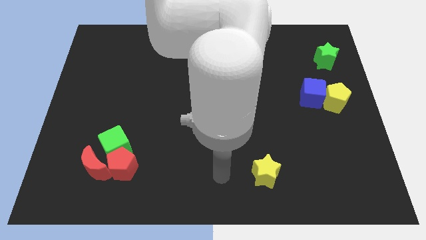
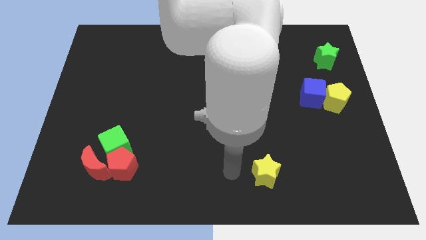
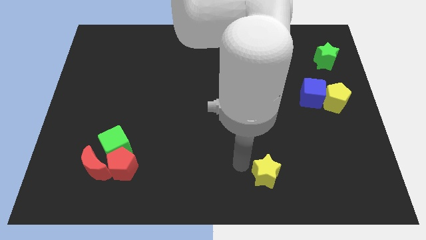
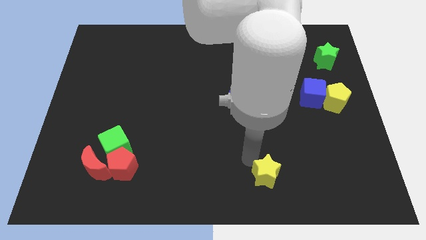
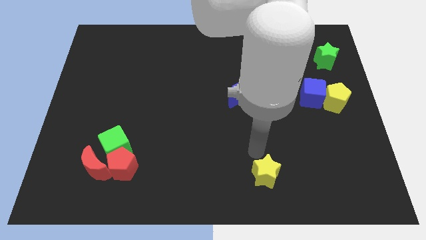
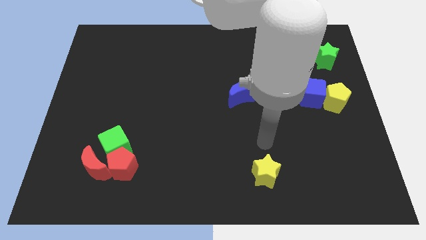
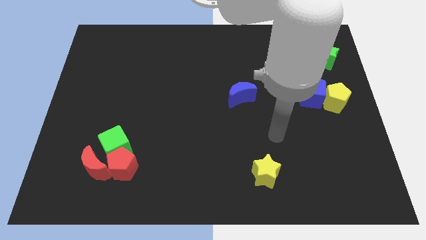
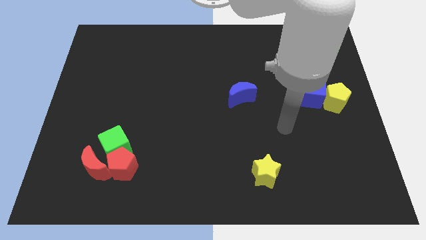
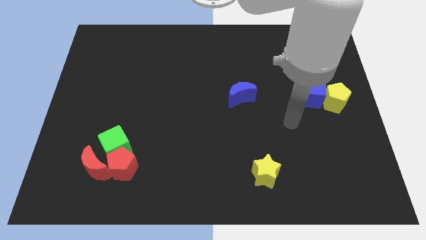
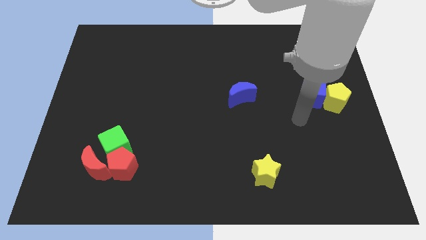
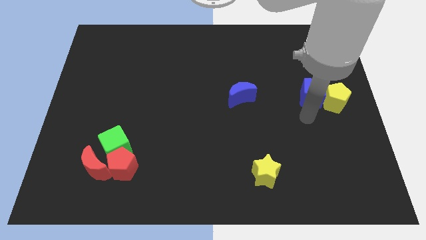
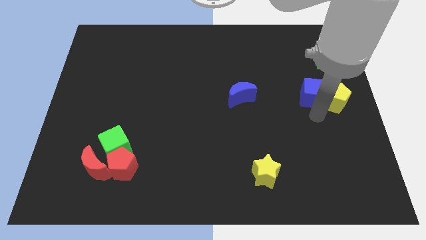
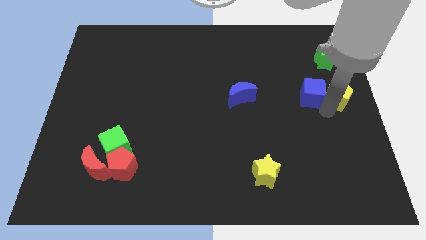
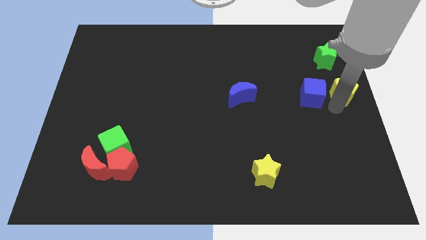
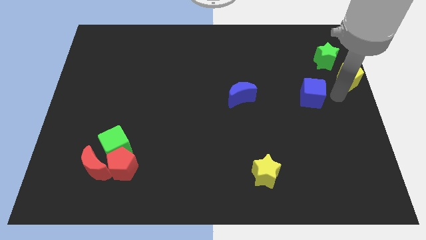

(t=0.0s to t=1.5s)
pull the blue cube apart from the yellow pentagon

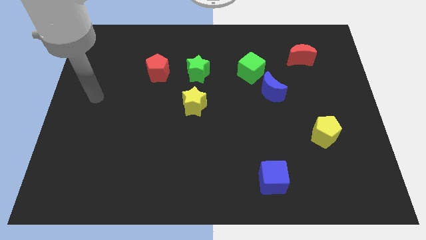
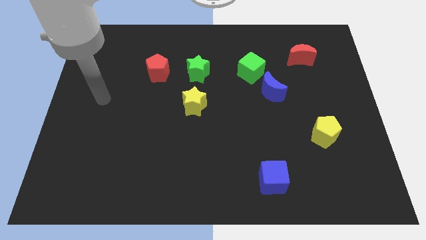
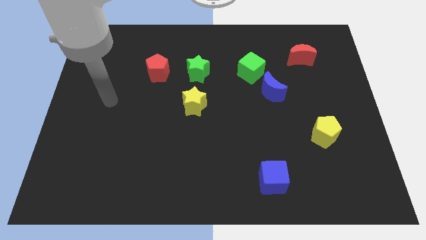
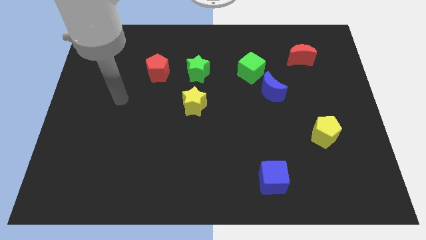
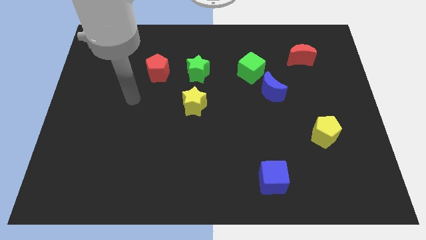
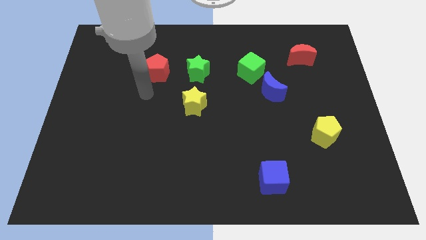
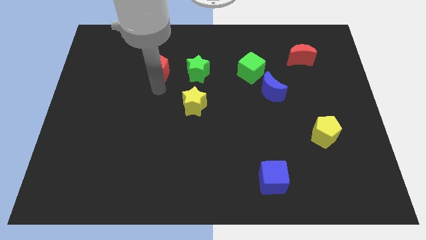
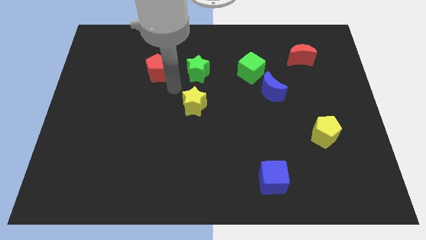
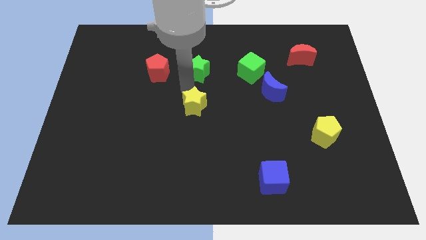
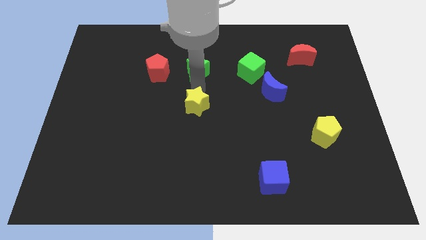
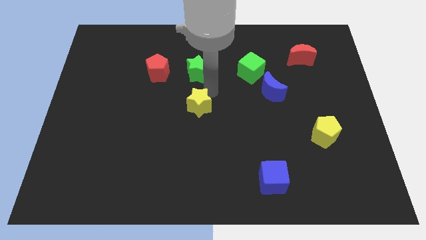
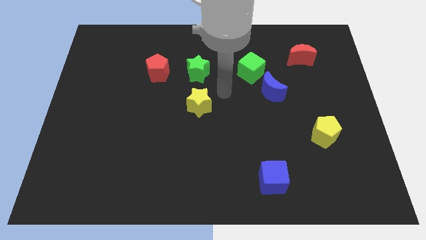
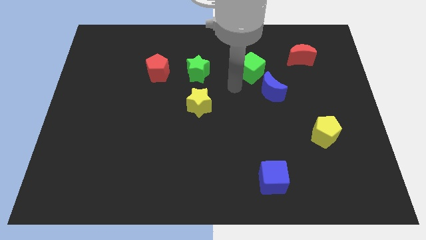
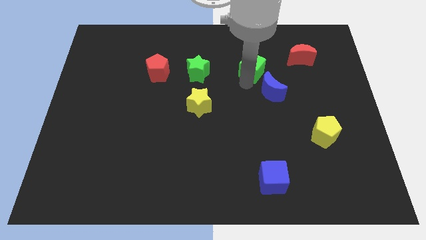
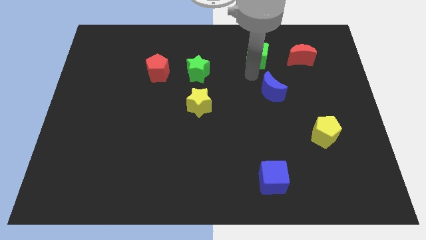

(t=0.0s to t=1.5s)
move the blue moon away from the green cube

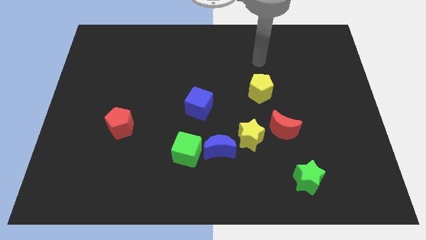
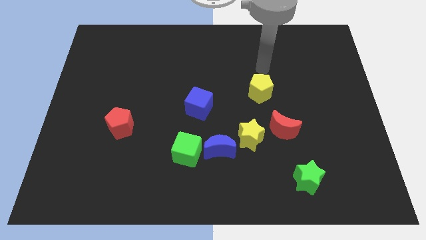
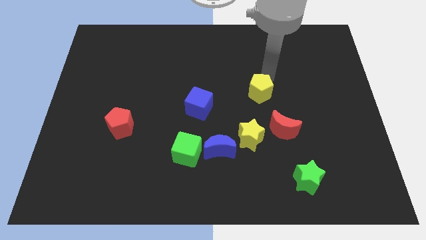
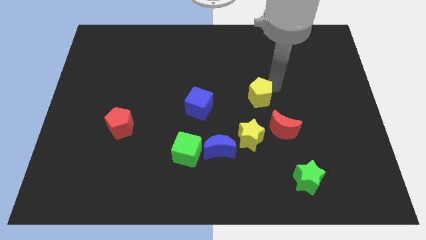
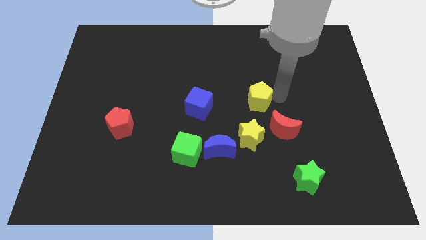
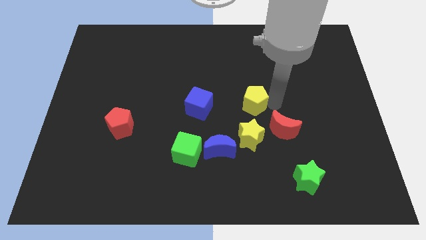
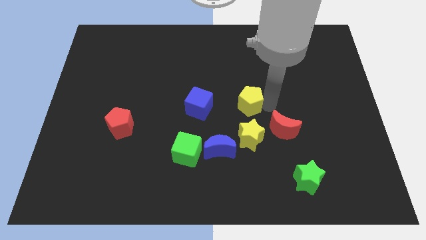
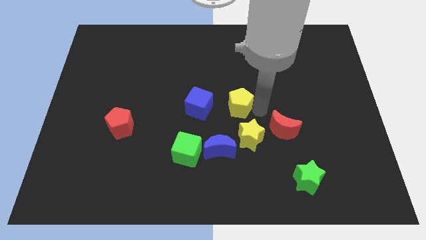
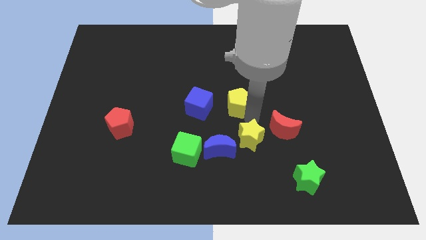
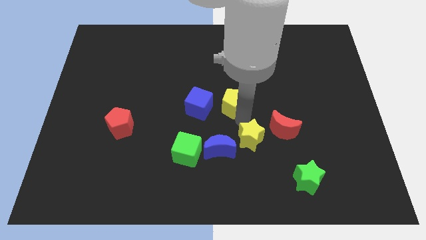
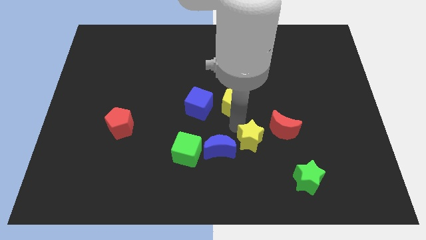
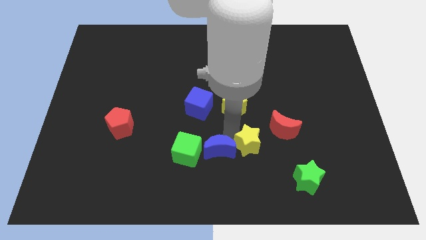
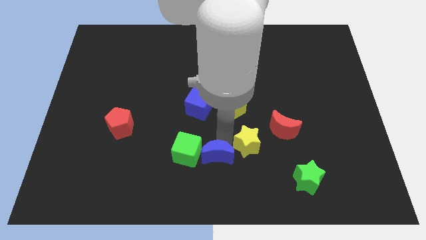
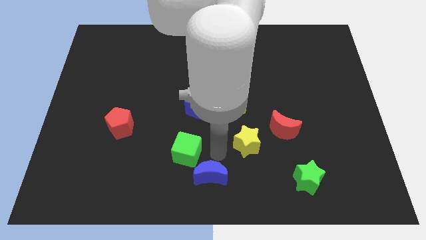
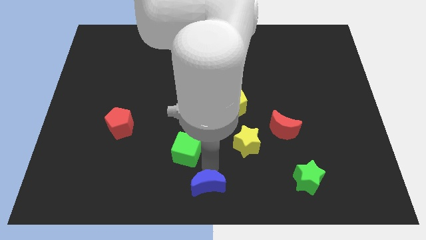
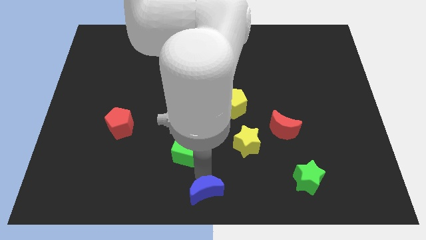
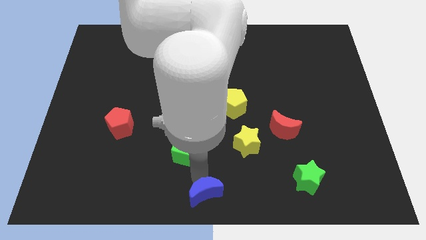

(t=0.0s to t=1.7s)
move the green cube away from the blue moon

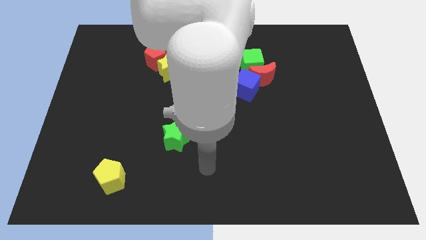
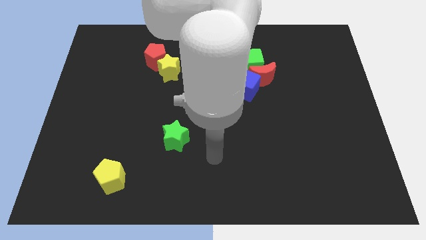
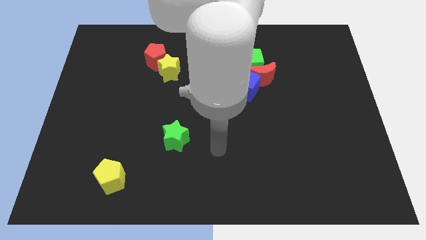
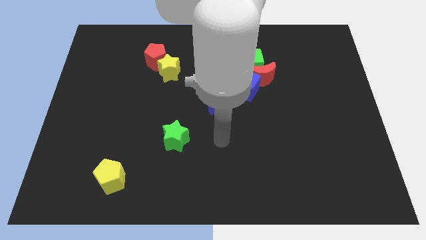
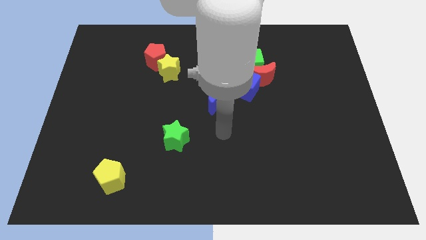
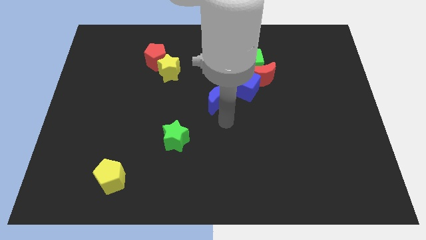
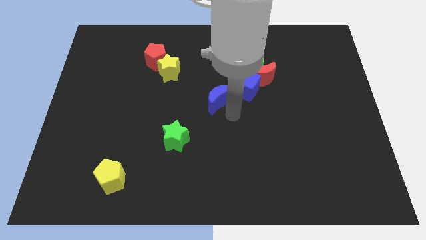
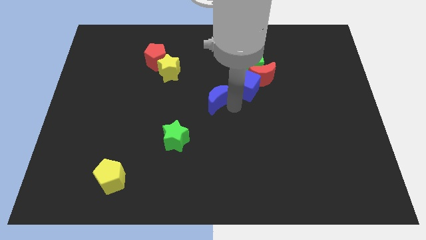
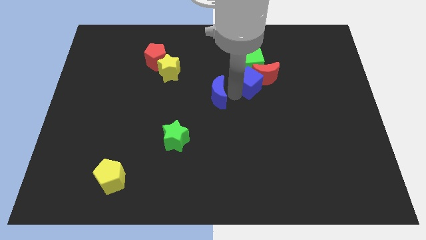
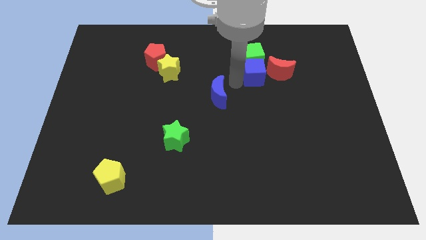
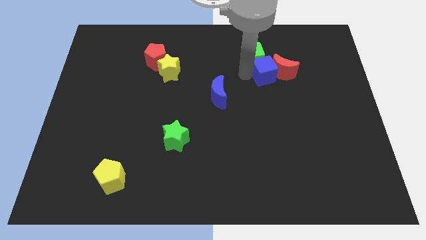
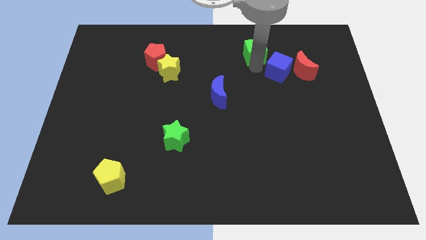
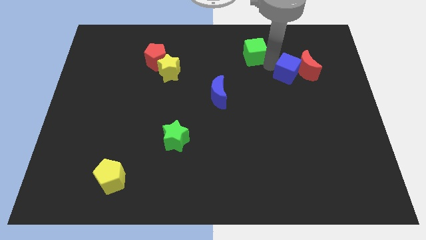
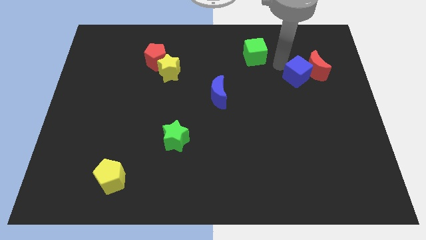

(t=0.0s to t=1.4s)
pull the red moon apart from the green cube and blue cube

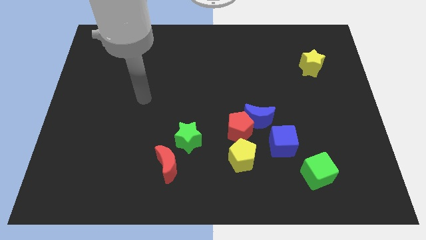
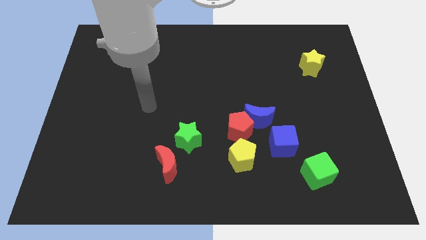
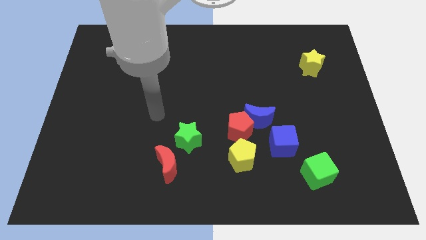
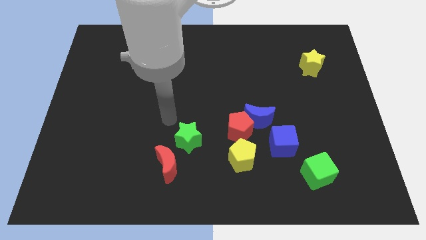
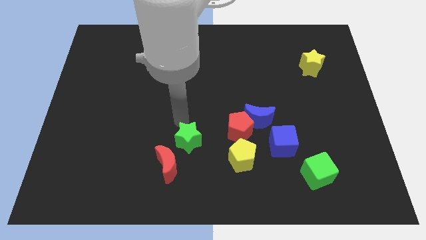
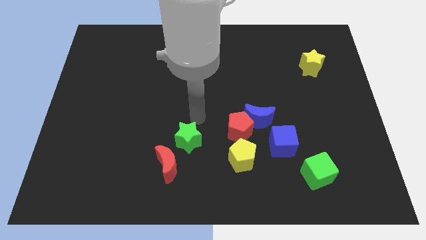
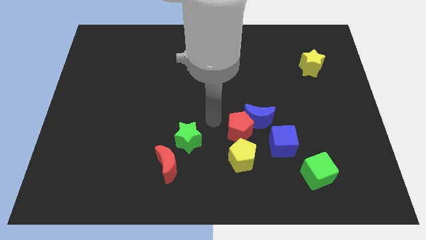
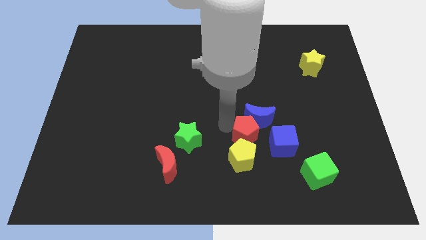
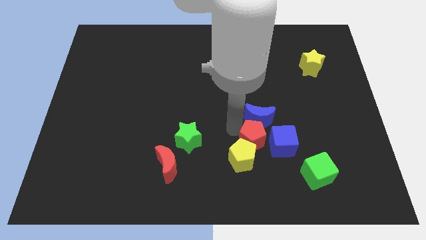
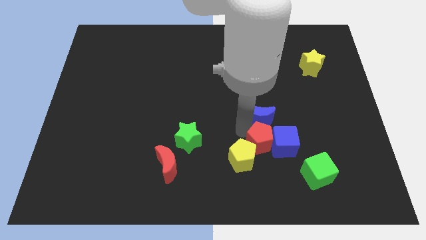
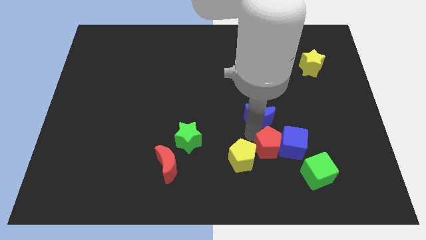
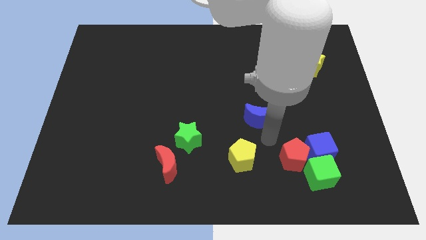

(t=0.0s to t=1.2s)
move the blue moon away from the red pentagon and blue cube

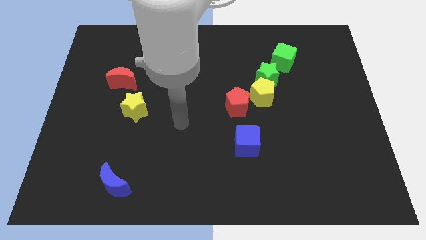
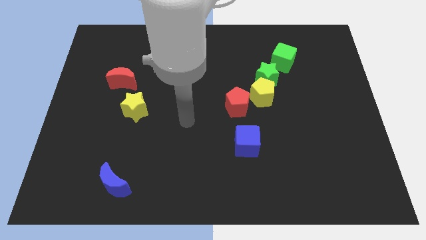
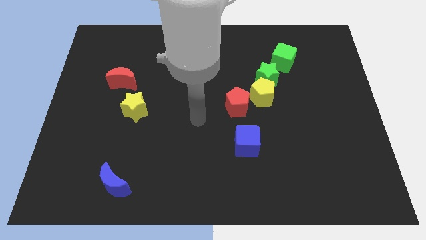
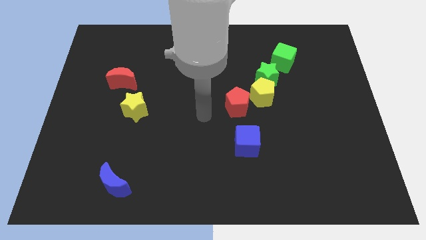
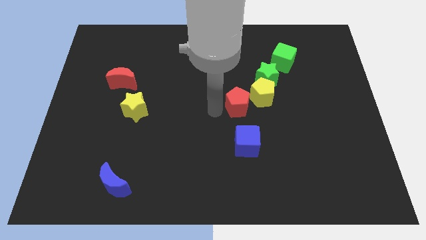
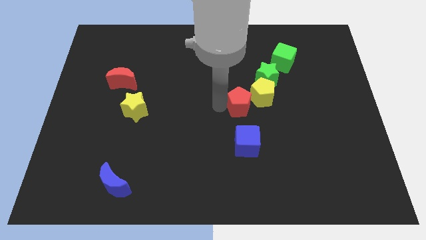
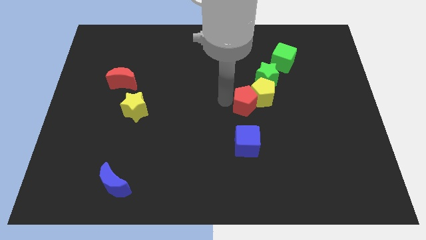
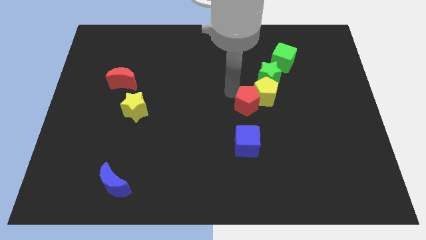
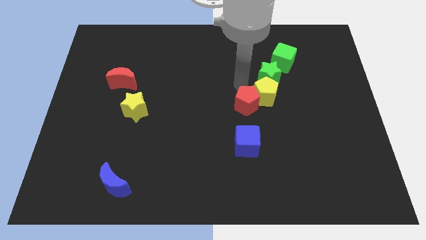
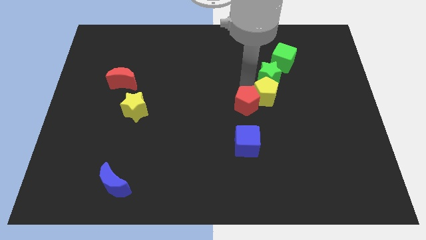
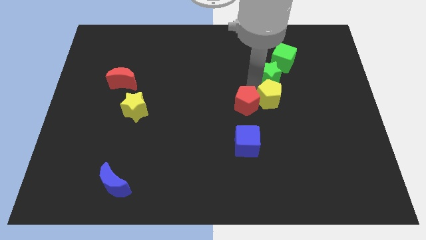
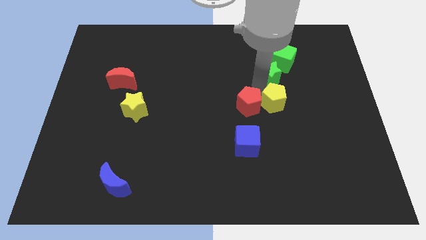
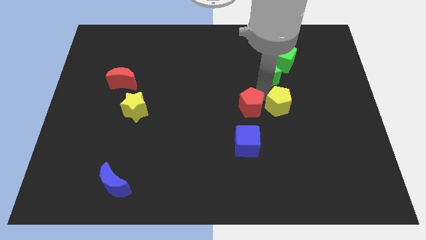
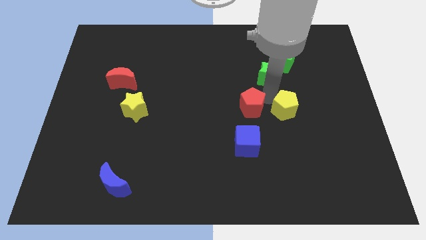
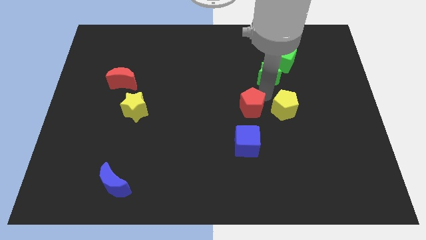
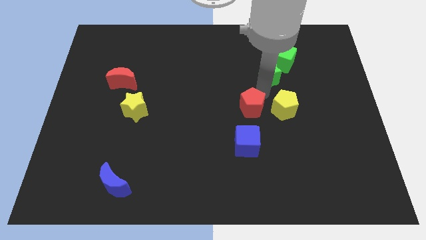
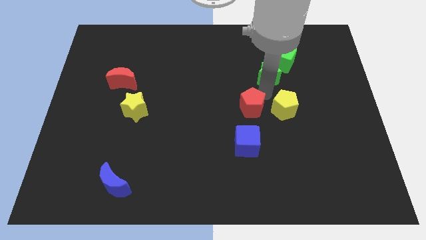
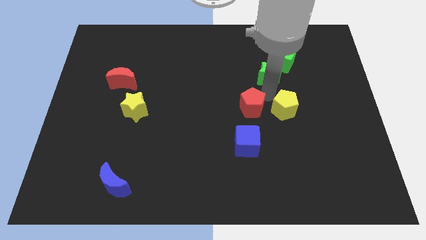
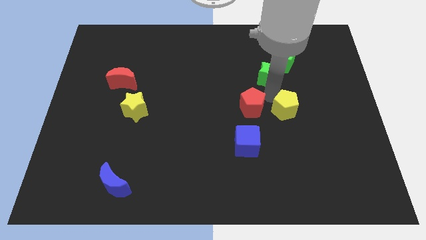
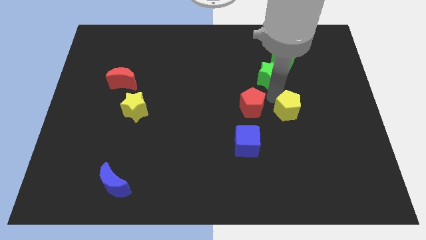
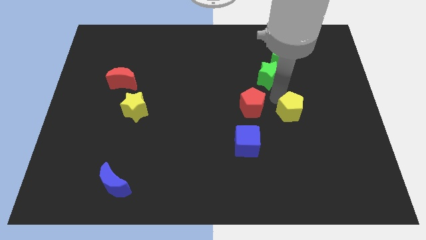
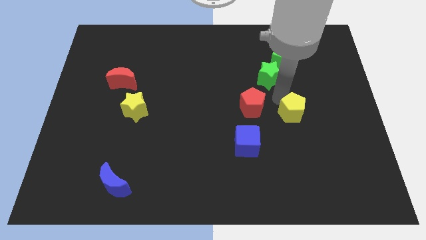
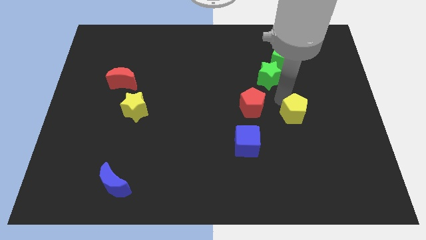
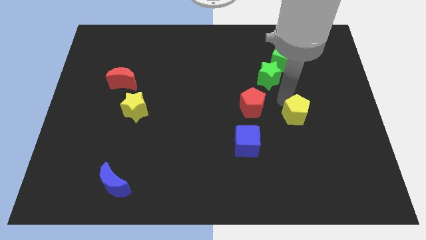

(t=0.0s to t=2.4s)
move the yellow pentagon away from the green star and red pentagon
